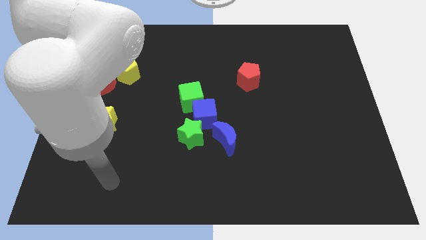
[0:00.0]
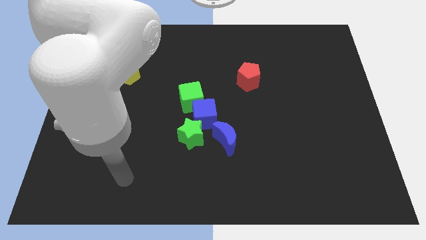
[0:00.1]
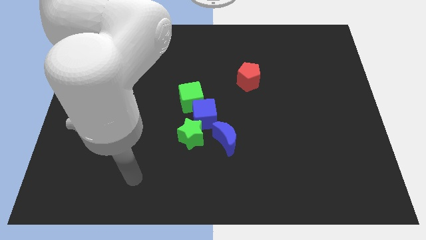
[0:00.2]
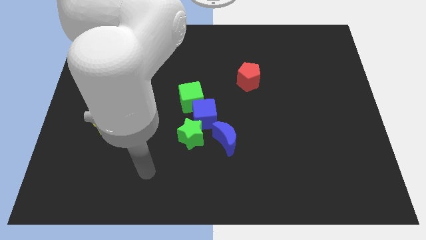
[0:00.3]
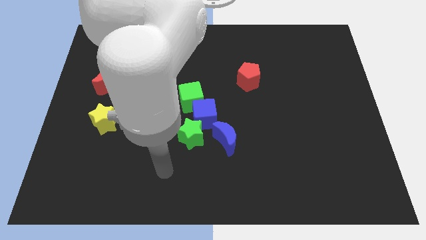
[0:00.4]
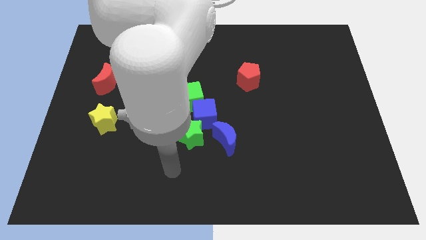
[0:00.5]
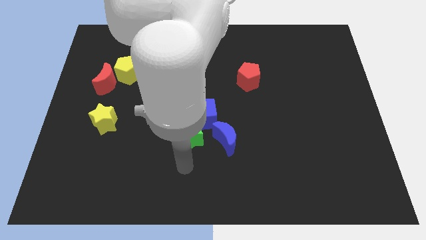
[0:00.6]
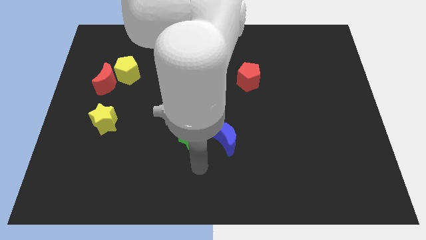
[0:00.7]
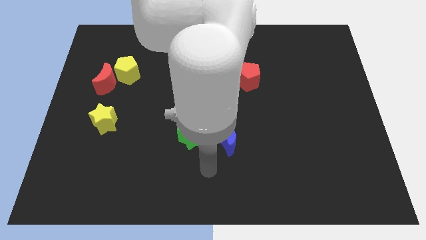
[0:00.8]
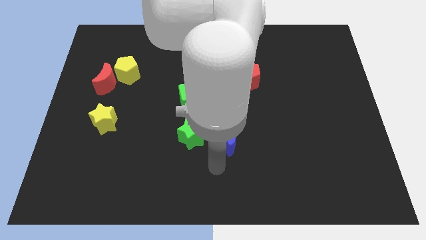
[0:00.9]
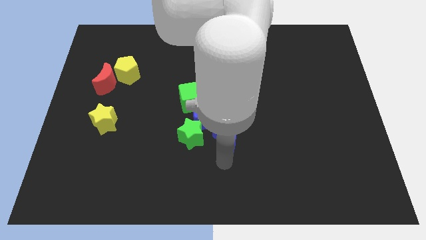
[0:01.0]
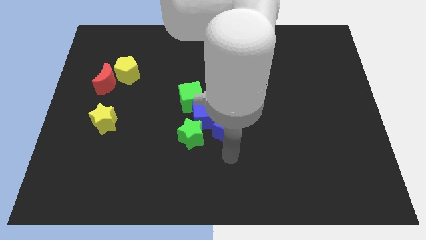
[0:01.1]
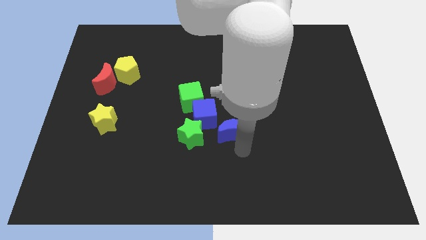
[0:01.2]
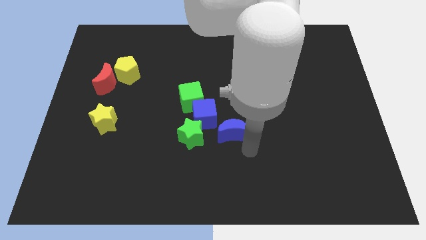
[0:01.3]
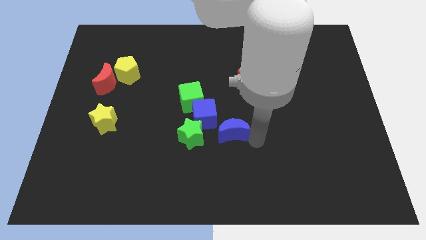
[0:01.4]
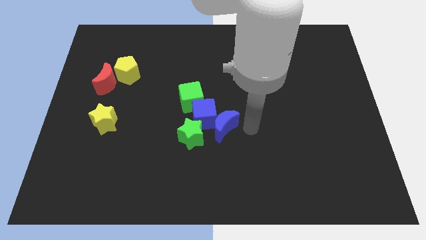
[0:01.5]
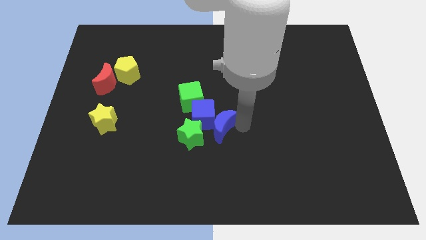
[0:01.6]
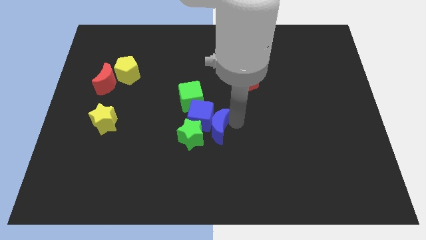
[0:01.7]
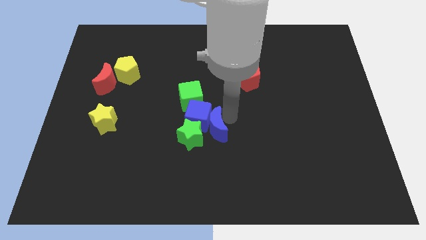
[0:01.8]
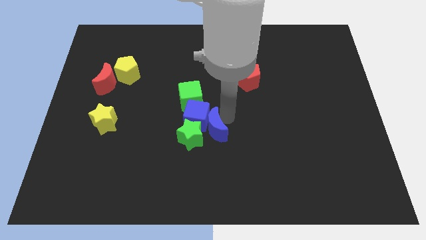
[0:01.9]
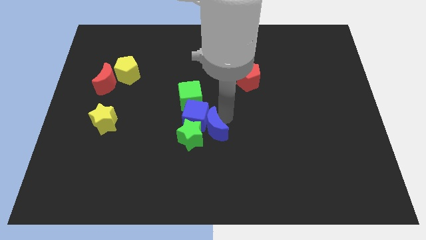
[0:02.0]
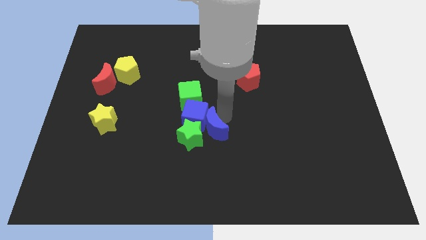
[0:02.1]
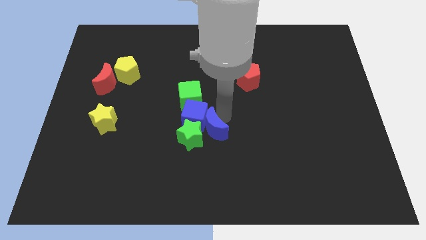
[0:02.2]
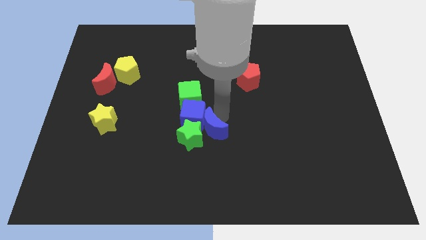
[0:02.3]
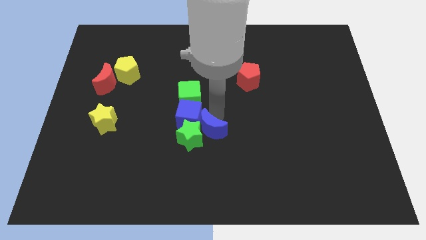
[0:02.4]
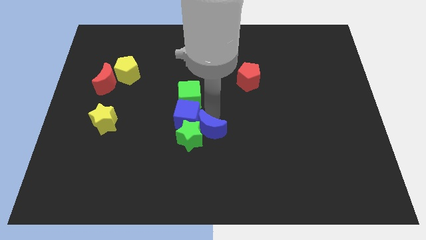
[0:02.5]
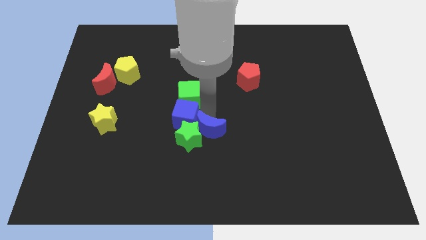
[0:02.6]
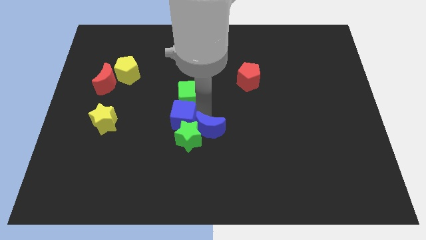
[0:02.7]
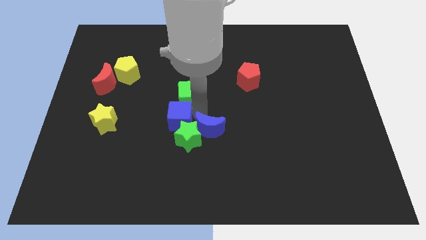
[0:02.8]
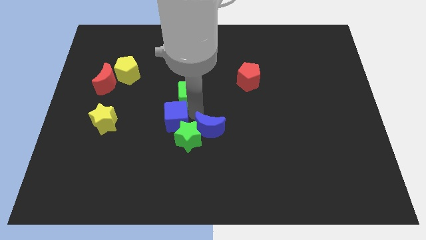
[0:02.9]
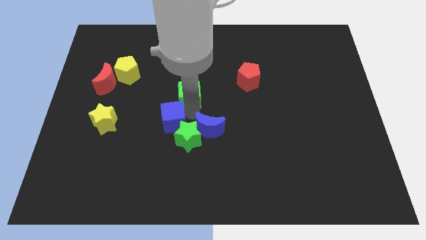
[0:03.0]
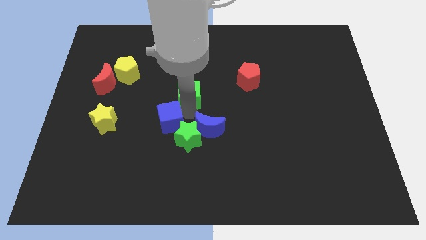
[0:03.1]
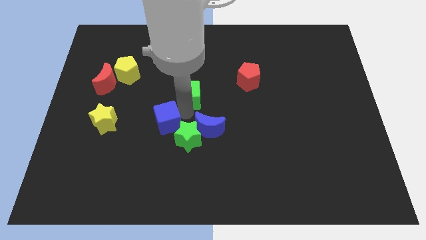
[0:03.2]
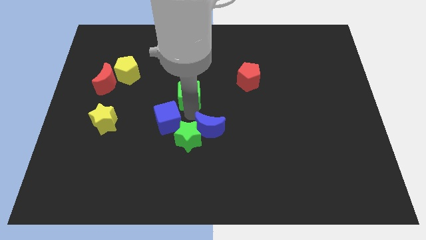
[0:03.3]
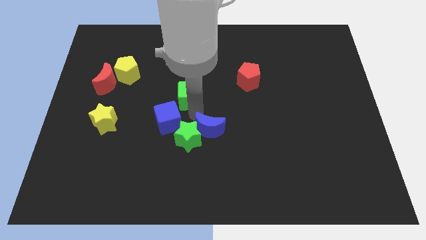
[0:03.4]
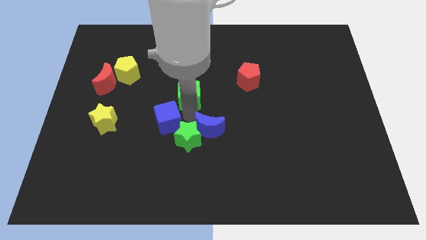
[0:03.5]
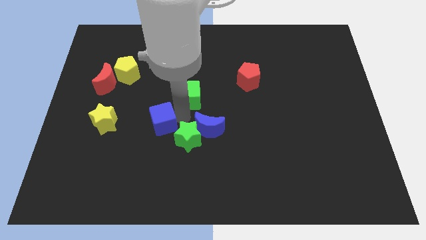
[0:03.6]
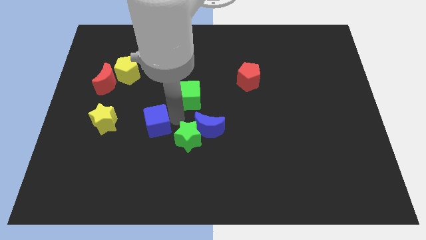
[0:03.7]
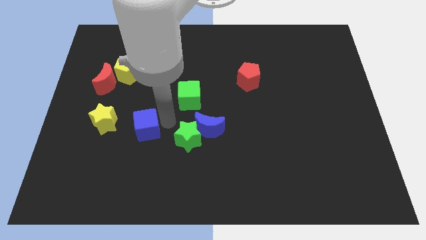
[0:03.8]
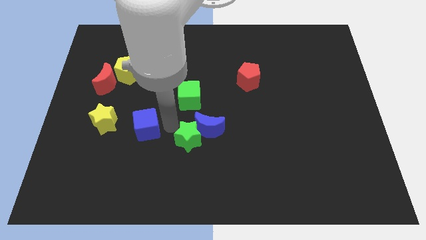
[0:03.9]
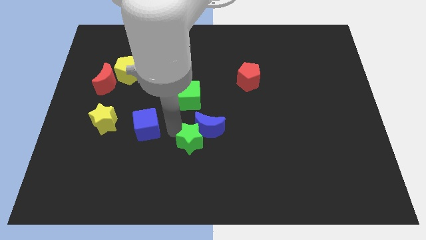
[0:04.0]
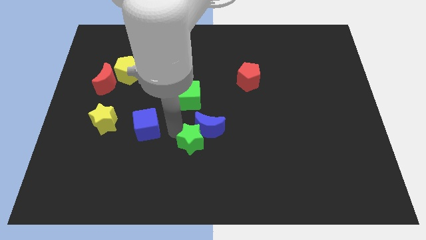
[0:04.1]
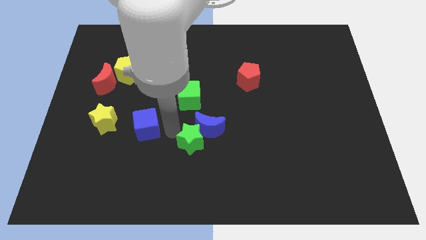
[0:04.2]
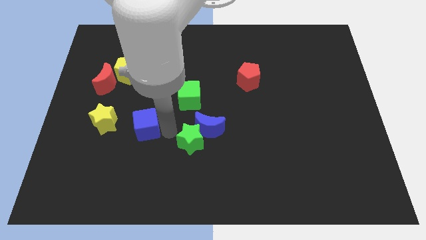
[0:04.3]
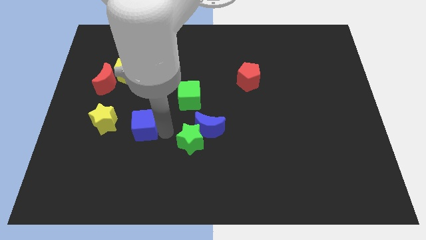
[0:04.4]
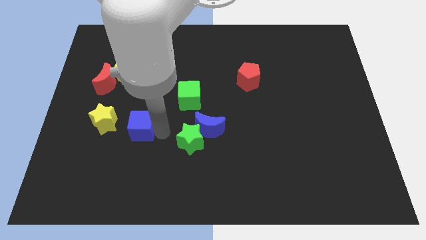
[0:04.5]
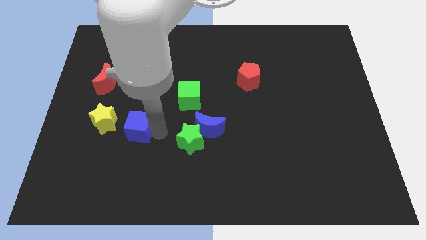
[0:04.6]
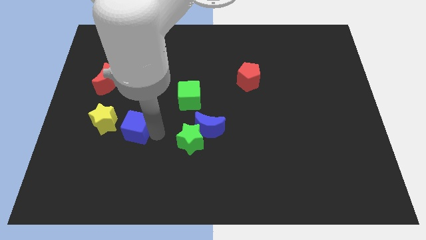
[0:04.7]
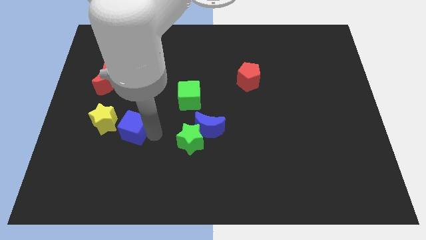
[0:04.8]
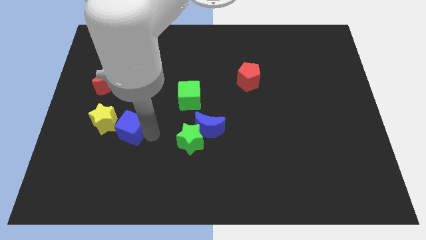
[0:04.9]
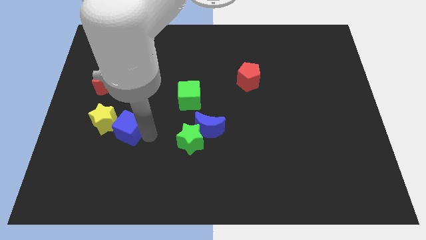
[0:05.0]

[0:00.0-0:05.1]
move the blue cube close to the yellow star

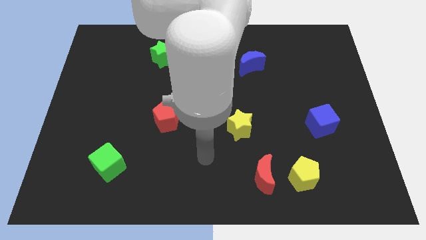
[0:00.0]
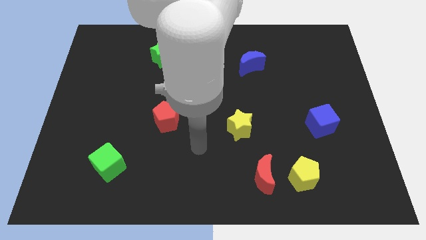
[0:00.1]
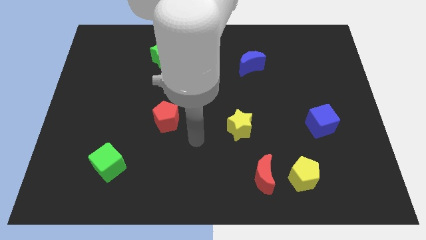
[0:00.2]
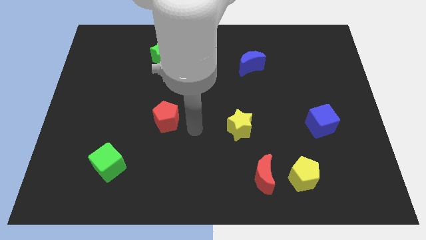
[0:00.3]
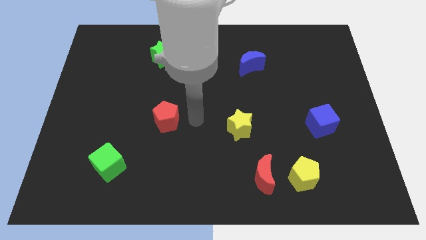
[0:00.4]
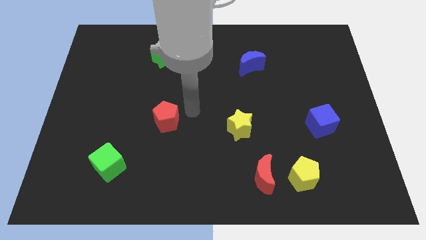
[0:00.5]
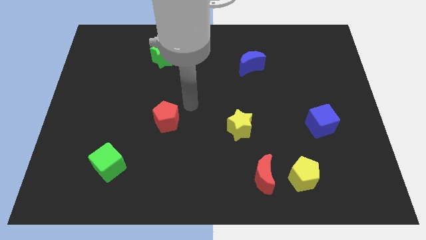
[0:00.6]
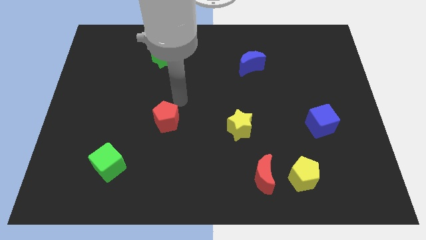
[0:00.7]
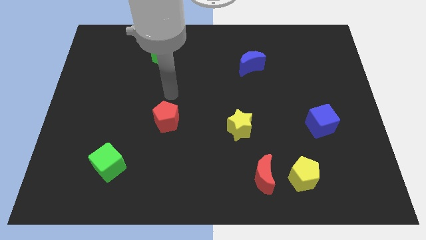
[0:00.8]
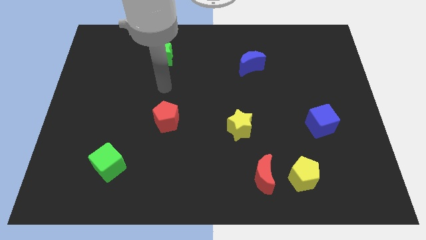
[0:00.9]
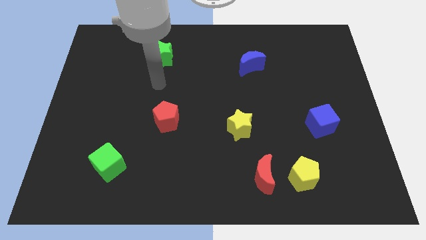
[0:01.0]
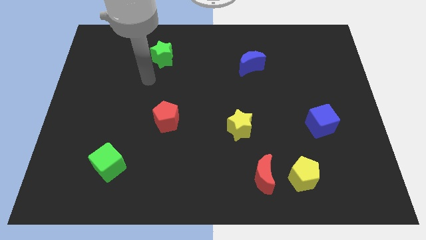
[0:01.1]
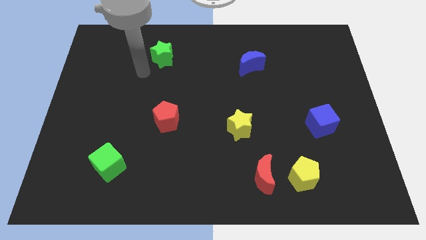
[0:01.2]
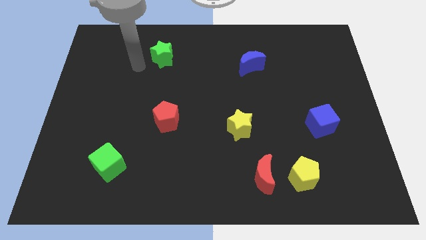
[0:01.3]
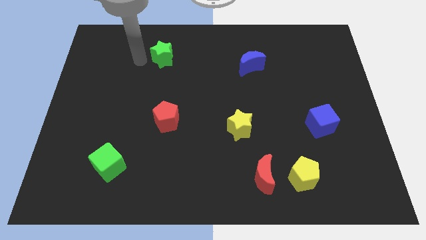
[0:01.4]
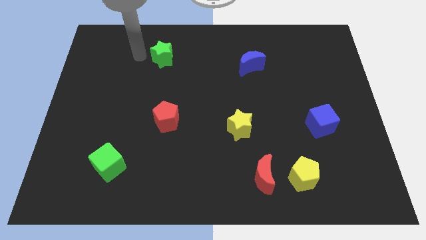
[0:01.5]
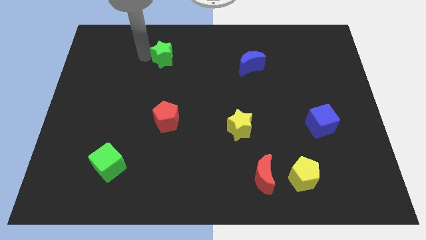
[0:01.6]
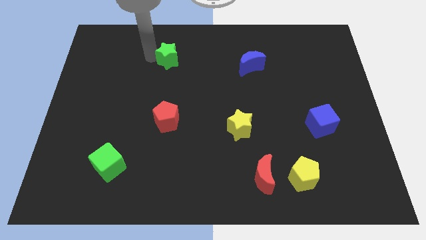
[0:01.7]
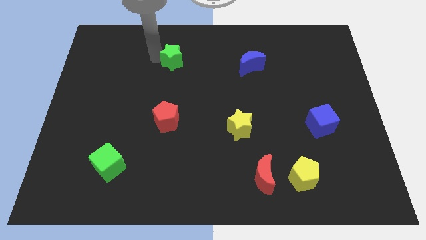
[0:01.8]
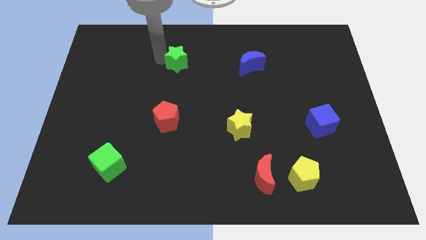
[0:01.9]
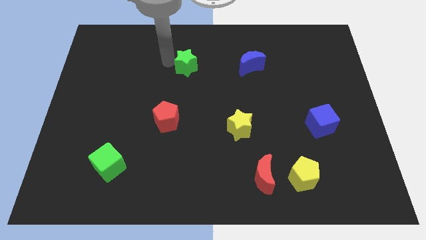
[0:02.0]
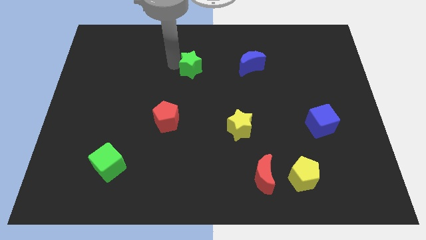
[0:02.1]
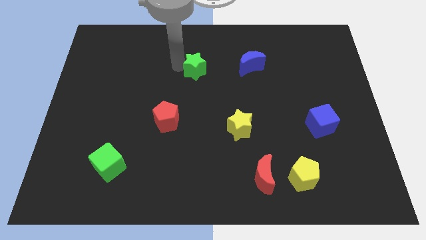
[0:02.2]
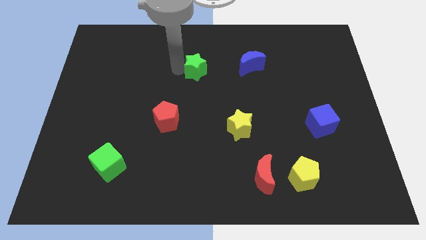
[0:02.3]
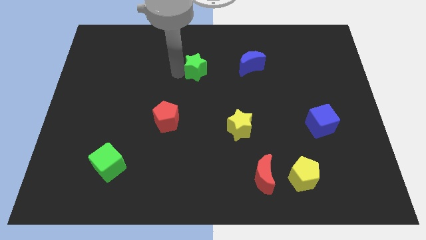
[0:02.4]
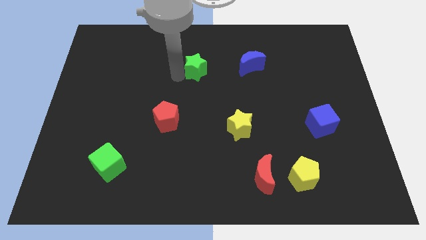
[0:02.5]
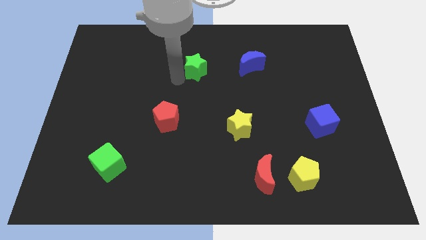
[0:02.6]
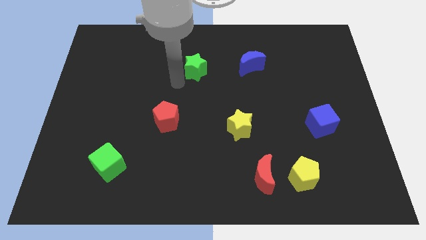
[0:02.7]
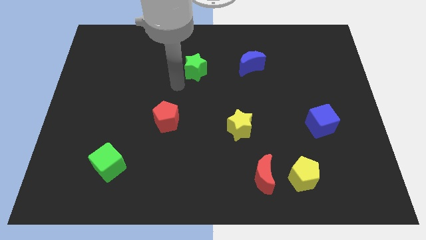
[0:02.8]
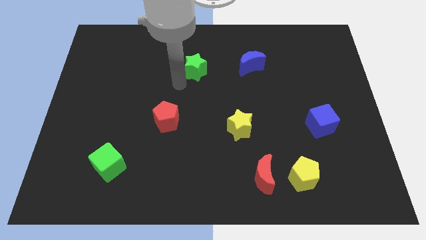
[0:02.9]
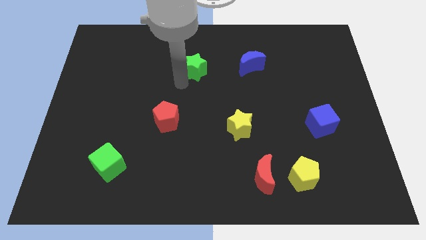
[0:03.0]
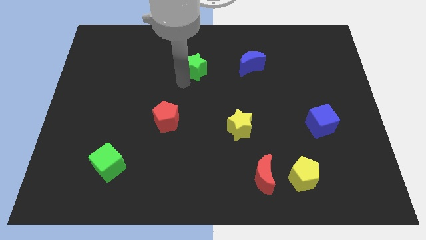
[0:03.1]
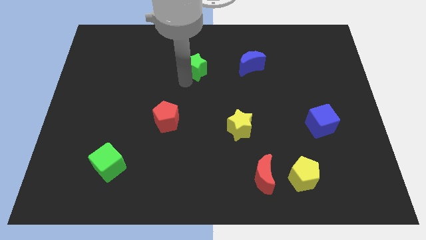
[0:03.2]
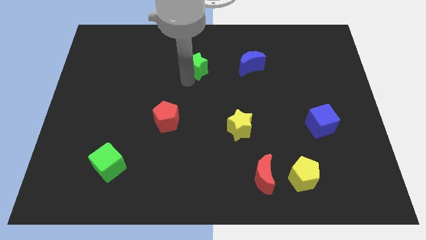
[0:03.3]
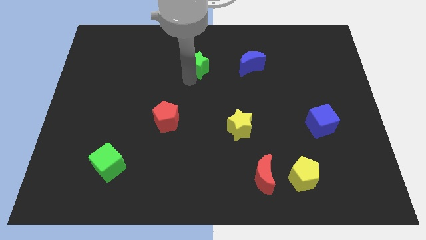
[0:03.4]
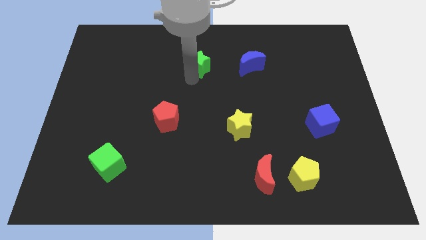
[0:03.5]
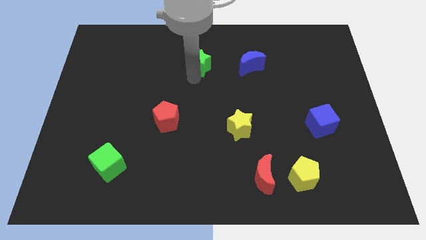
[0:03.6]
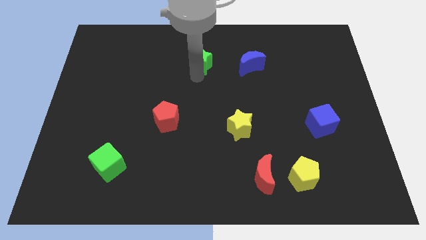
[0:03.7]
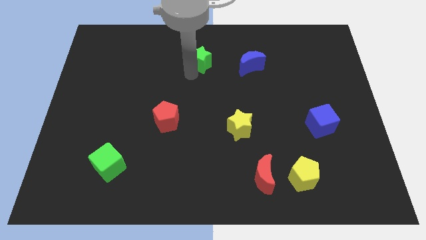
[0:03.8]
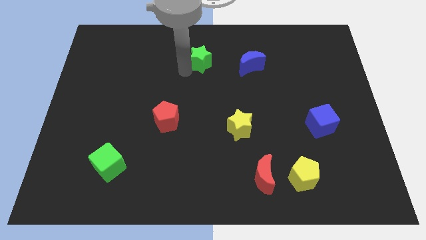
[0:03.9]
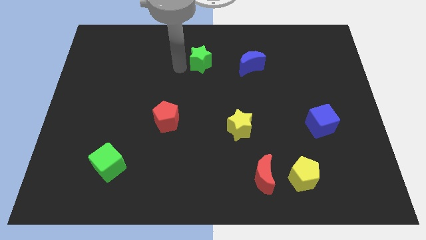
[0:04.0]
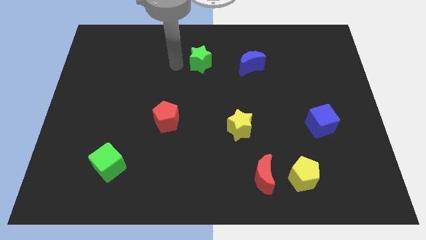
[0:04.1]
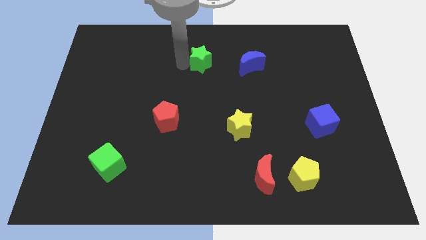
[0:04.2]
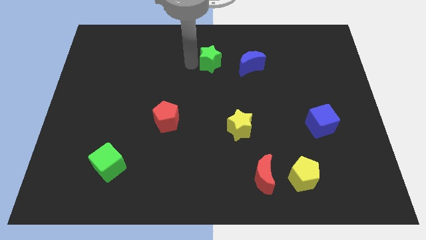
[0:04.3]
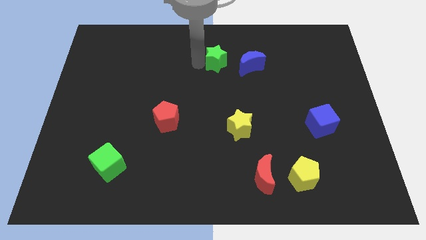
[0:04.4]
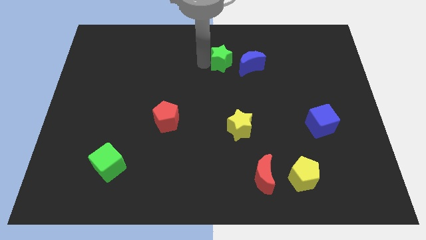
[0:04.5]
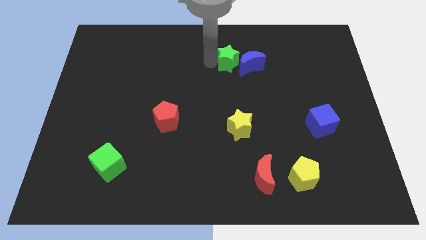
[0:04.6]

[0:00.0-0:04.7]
move the green star to the blue moon
